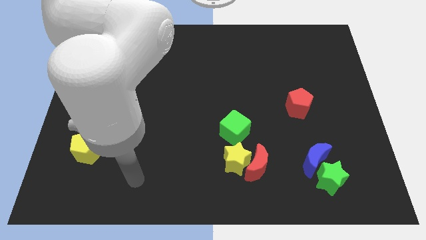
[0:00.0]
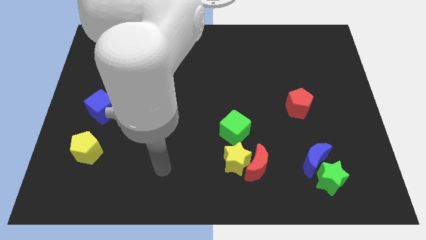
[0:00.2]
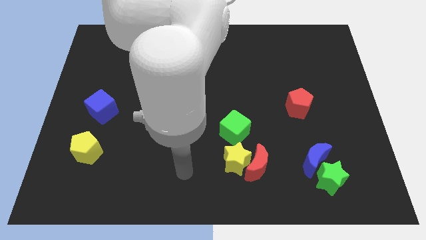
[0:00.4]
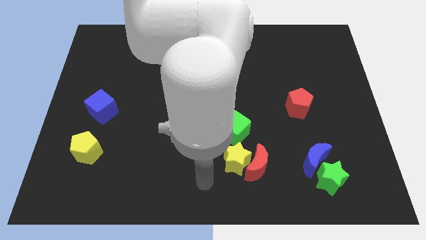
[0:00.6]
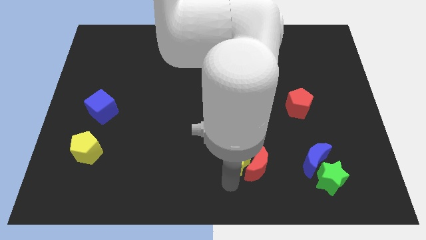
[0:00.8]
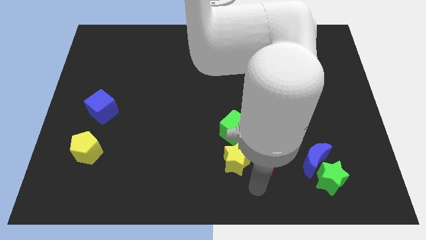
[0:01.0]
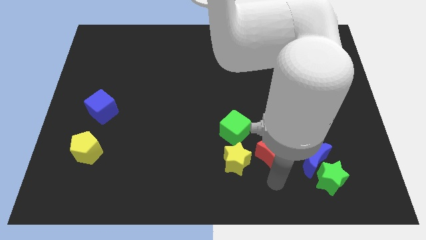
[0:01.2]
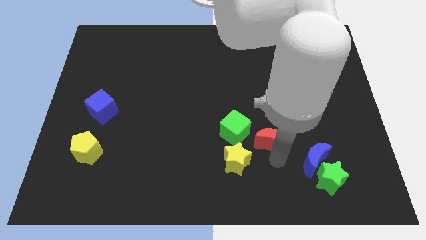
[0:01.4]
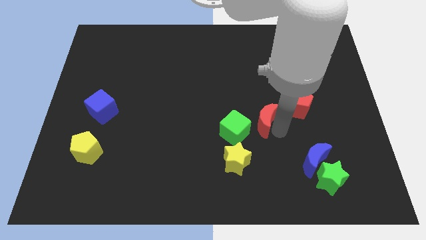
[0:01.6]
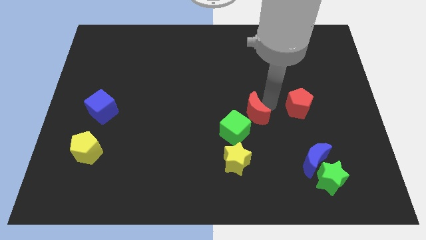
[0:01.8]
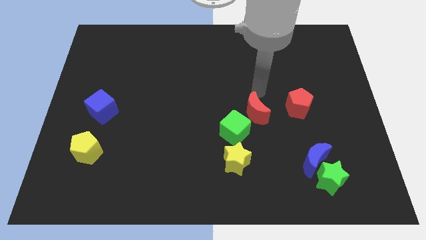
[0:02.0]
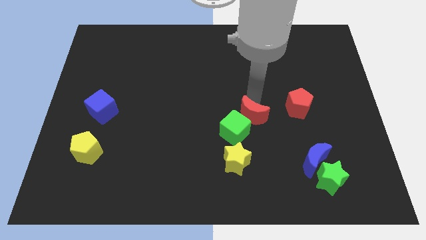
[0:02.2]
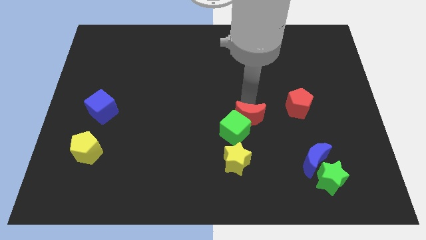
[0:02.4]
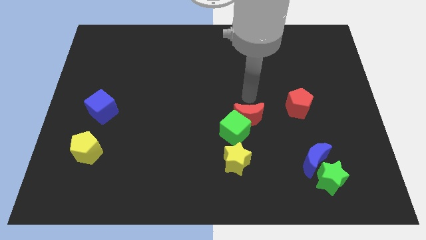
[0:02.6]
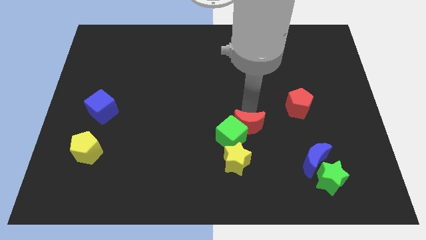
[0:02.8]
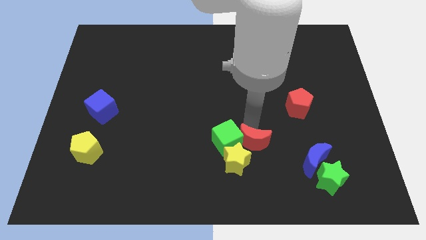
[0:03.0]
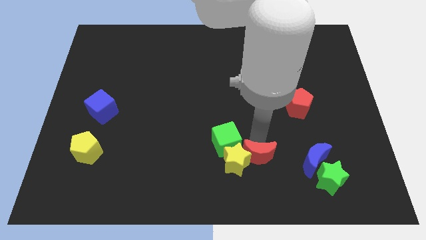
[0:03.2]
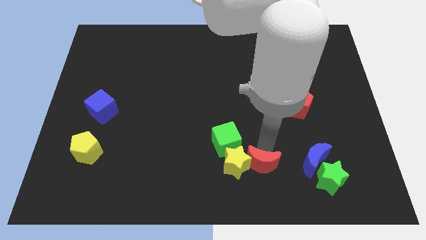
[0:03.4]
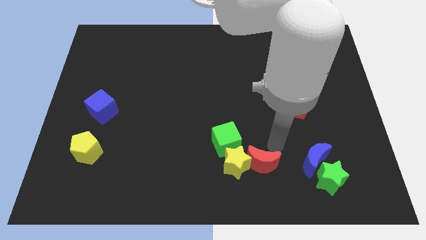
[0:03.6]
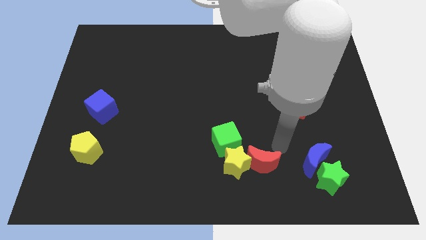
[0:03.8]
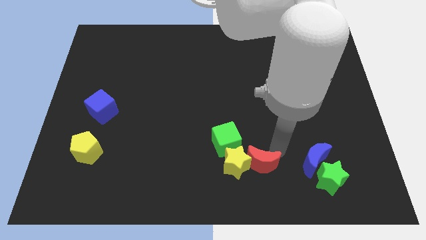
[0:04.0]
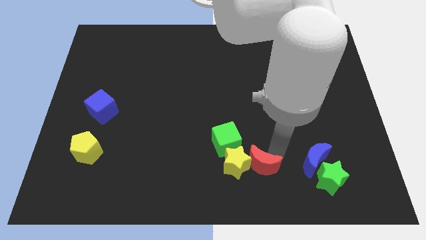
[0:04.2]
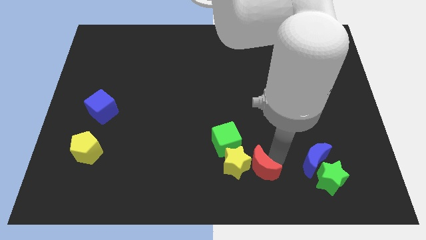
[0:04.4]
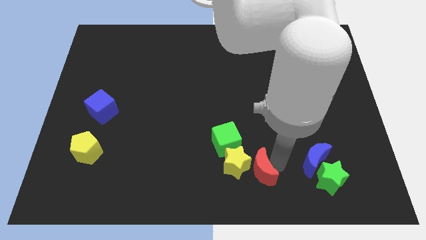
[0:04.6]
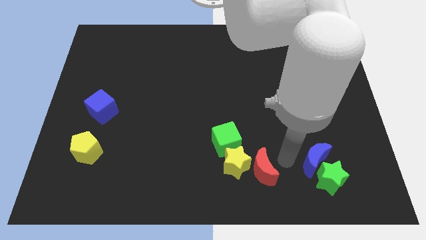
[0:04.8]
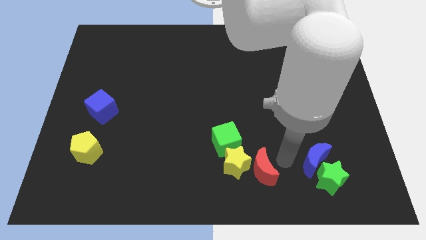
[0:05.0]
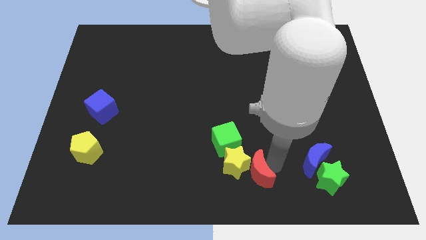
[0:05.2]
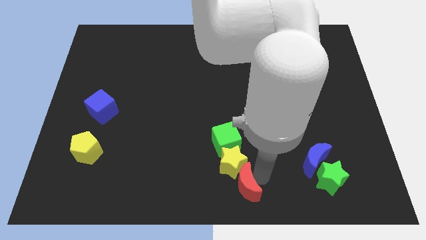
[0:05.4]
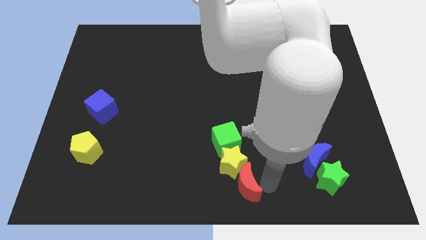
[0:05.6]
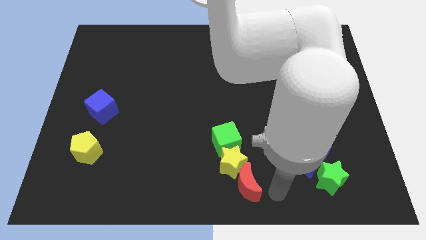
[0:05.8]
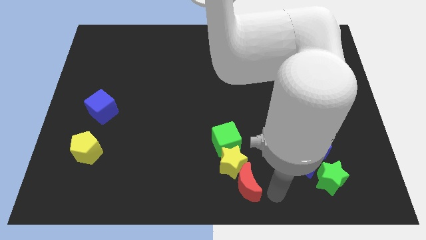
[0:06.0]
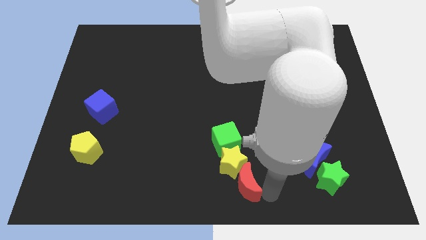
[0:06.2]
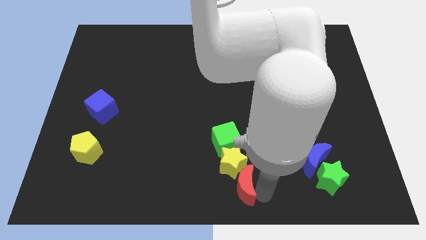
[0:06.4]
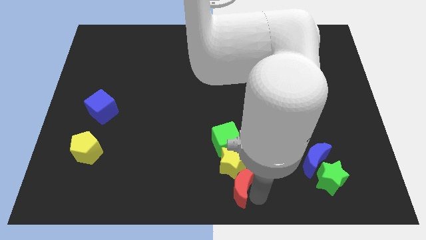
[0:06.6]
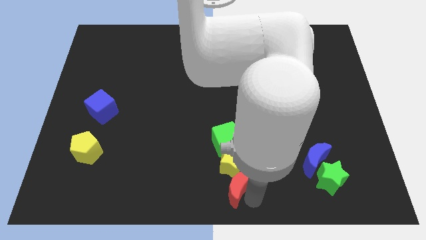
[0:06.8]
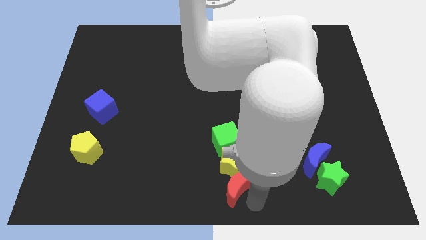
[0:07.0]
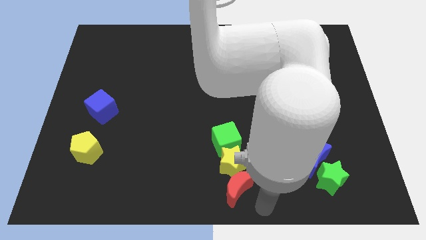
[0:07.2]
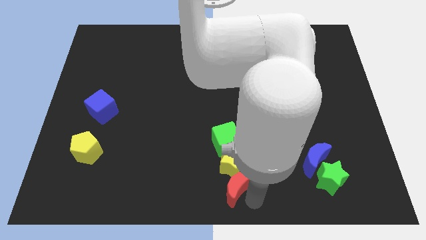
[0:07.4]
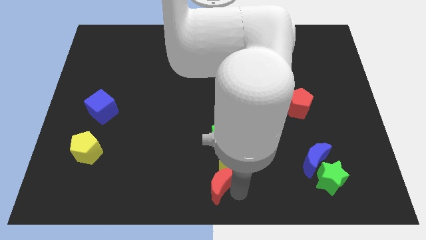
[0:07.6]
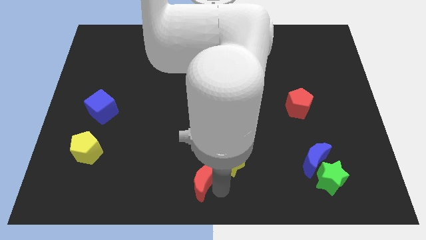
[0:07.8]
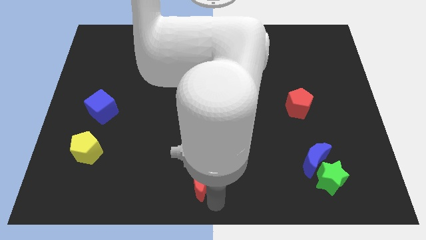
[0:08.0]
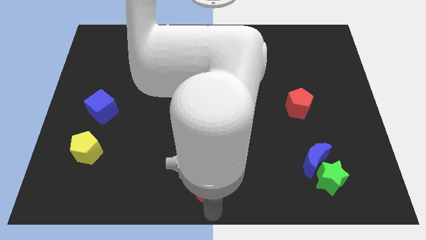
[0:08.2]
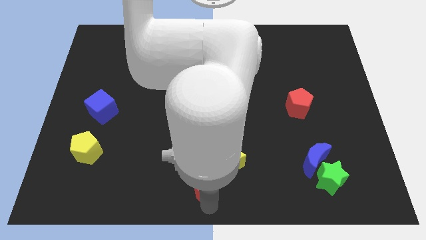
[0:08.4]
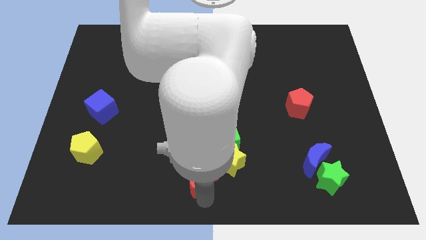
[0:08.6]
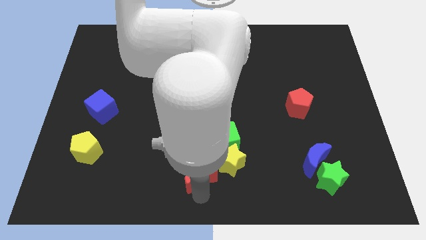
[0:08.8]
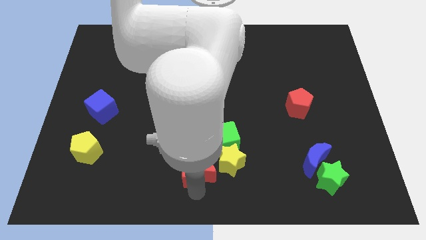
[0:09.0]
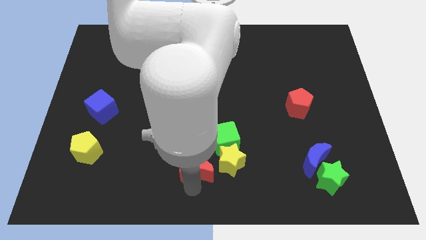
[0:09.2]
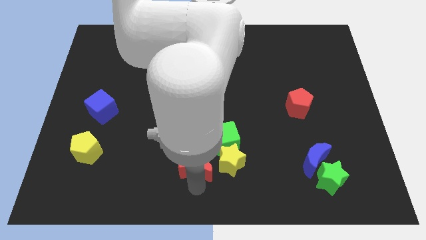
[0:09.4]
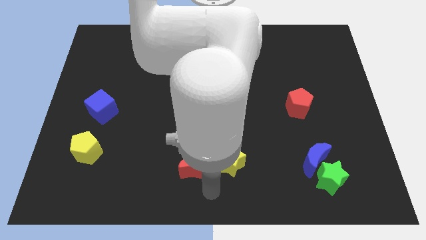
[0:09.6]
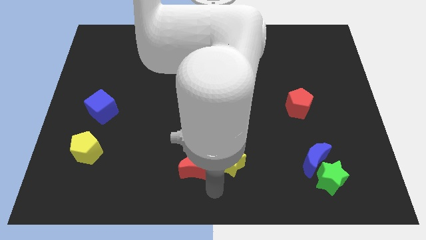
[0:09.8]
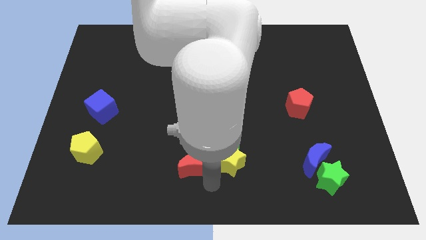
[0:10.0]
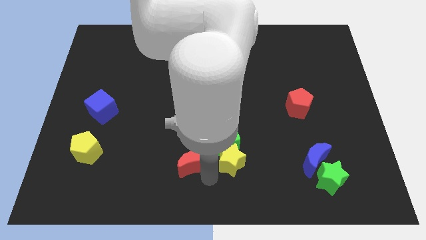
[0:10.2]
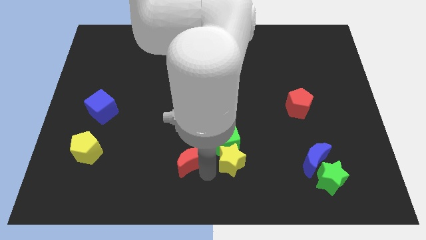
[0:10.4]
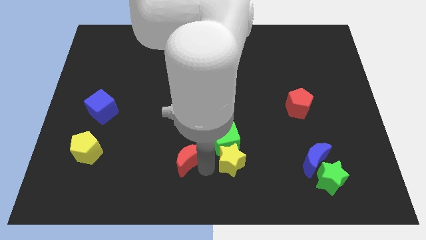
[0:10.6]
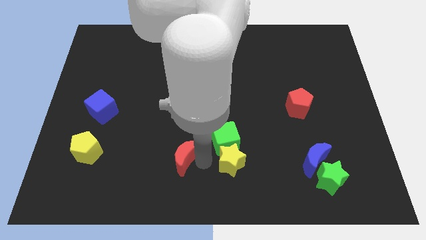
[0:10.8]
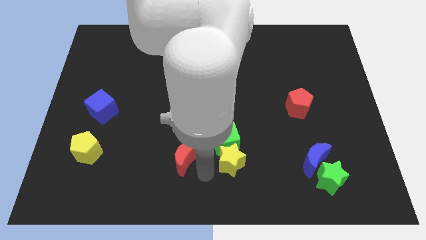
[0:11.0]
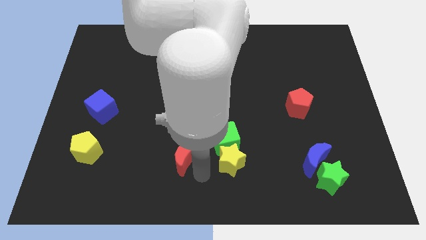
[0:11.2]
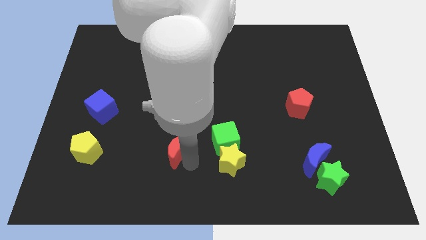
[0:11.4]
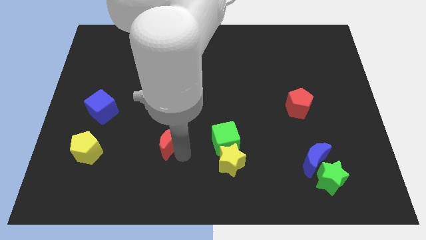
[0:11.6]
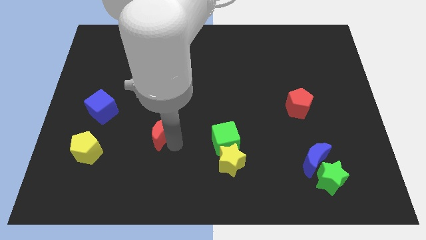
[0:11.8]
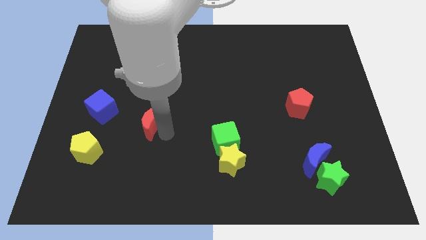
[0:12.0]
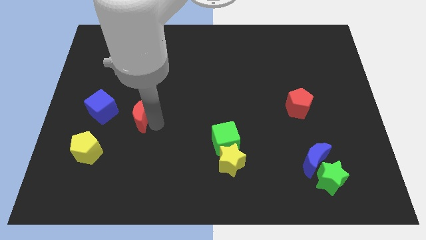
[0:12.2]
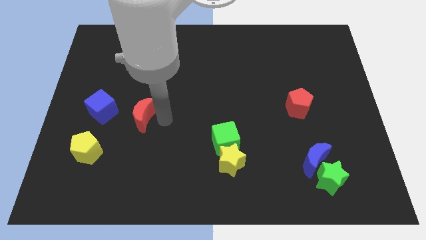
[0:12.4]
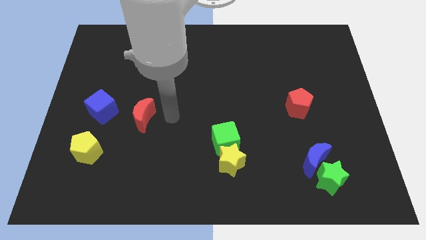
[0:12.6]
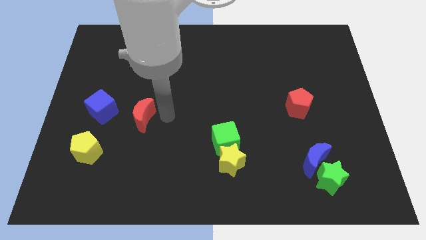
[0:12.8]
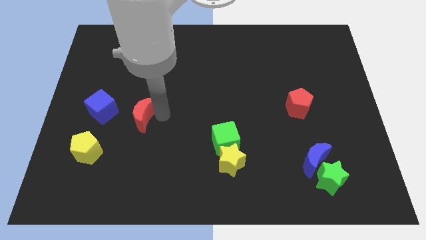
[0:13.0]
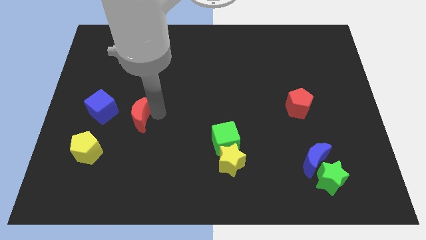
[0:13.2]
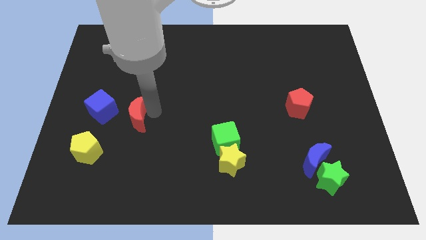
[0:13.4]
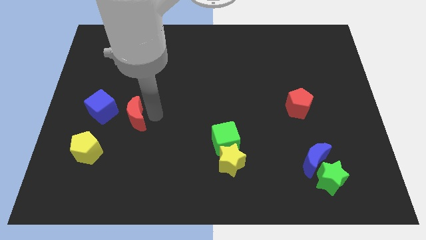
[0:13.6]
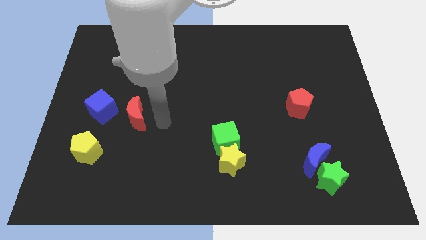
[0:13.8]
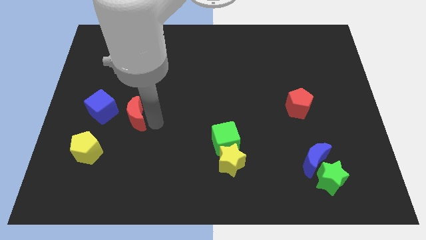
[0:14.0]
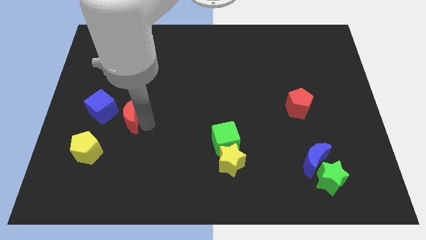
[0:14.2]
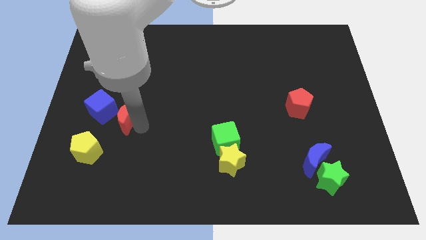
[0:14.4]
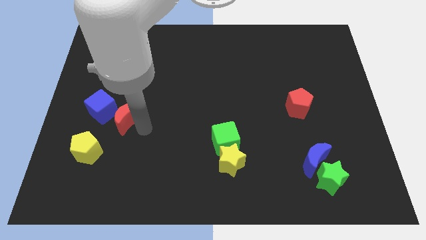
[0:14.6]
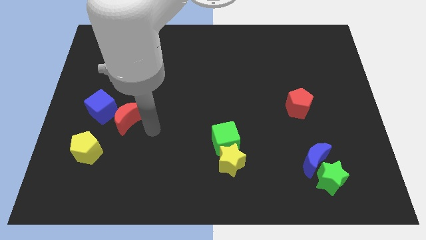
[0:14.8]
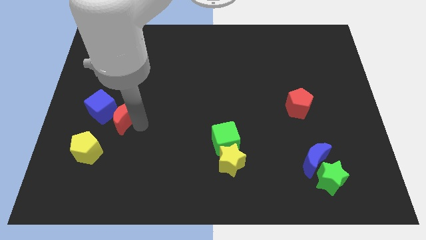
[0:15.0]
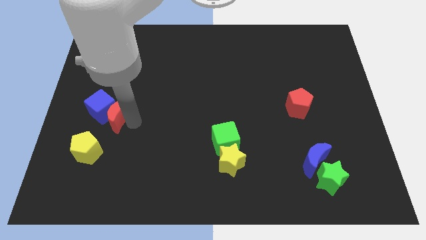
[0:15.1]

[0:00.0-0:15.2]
slide the red moon towards the blue cube
